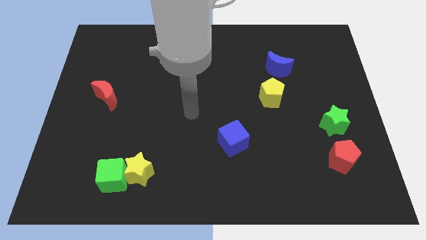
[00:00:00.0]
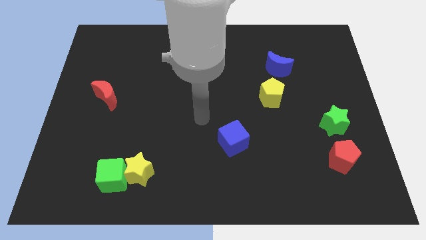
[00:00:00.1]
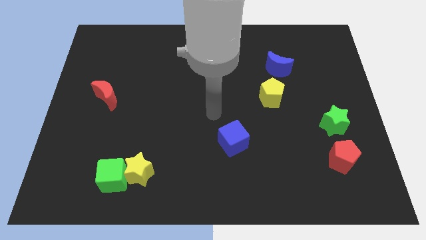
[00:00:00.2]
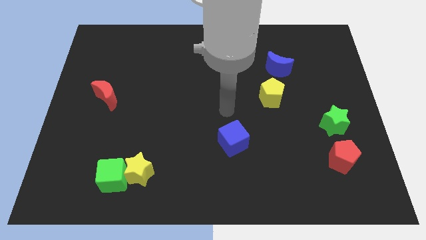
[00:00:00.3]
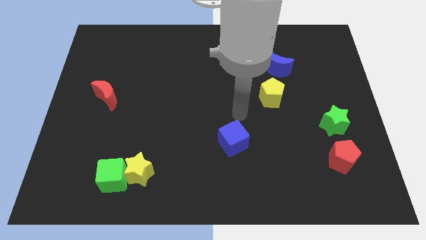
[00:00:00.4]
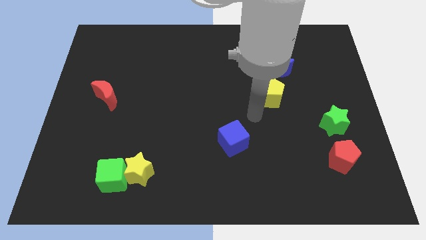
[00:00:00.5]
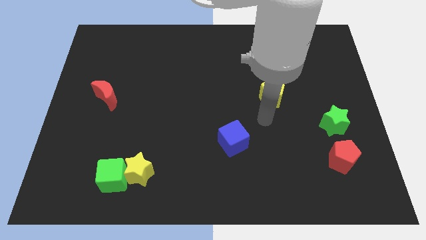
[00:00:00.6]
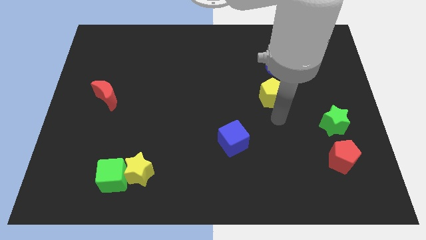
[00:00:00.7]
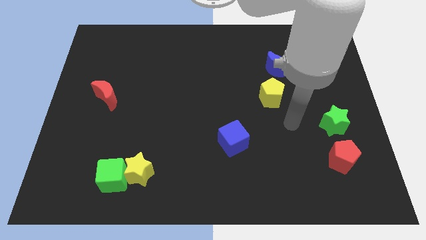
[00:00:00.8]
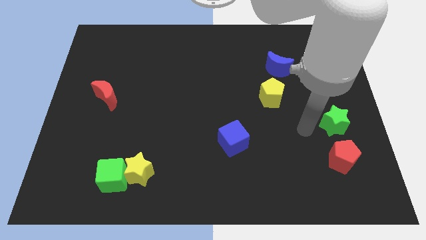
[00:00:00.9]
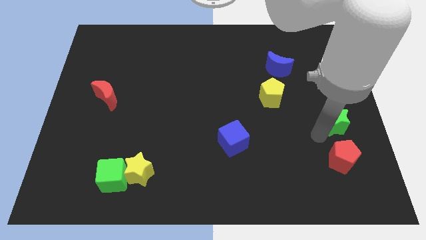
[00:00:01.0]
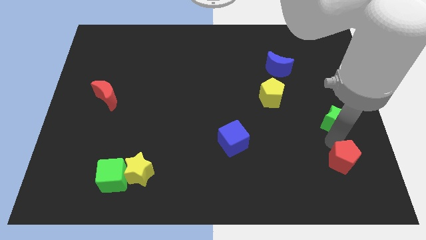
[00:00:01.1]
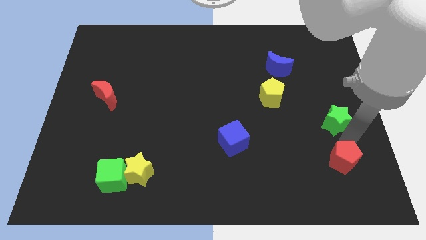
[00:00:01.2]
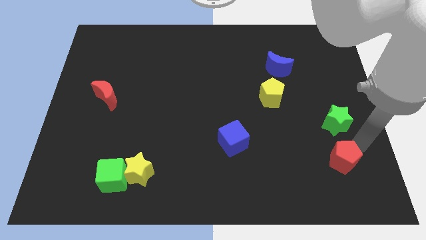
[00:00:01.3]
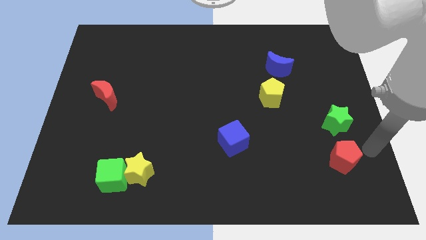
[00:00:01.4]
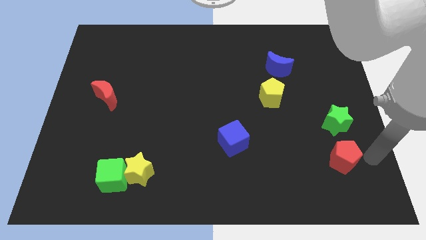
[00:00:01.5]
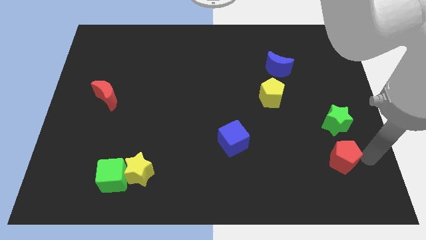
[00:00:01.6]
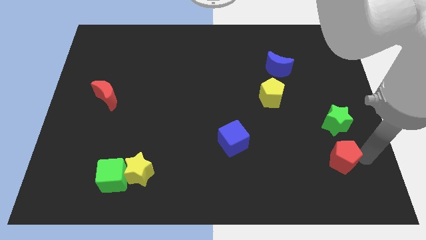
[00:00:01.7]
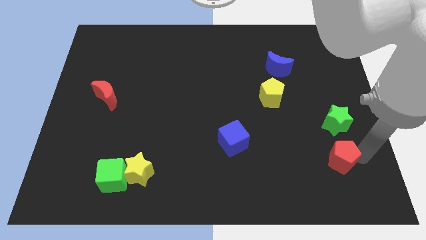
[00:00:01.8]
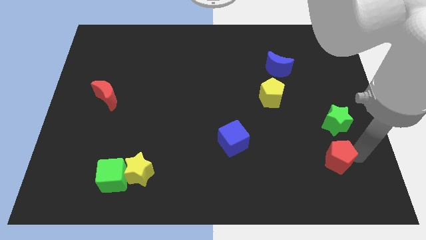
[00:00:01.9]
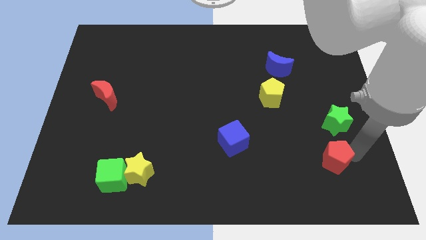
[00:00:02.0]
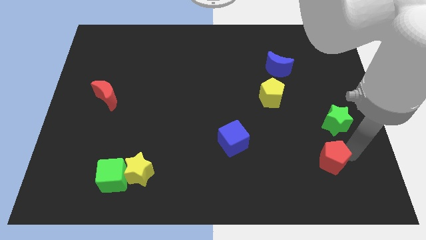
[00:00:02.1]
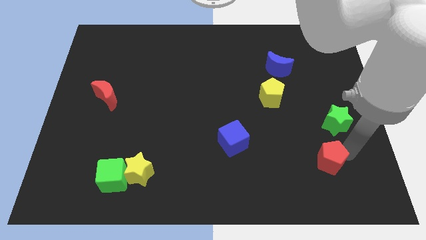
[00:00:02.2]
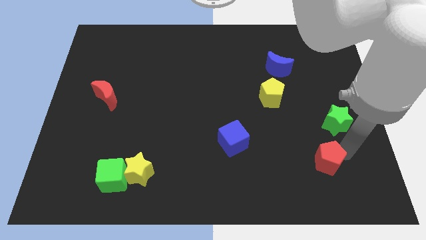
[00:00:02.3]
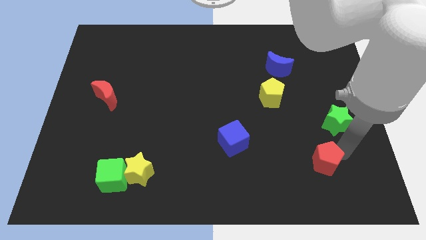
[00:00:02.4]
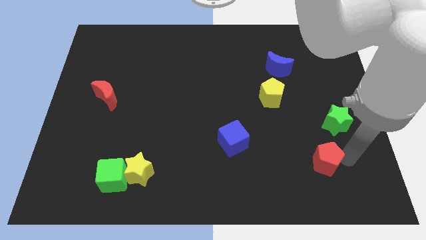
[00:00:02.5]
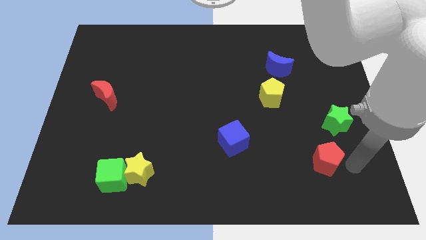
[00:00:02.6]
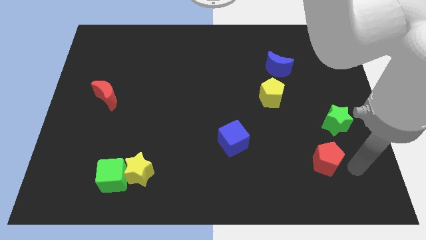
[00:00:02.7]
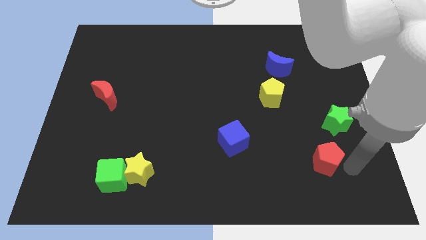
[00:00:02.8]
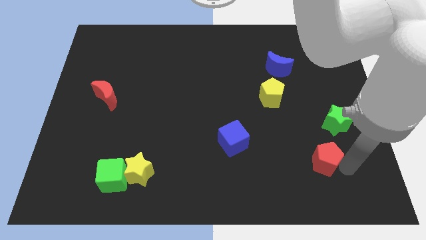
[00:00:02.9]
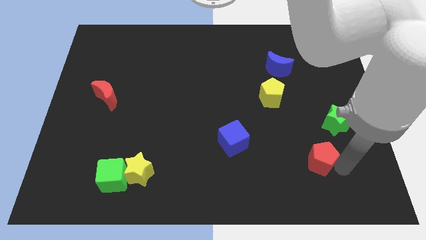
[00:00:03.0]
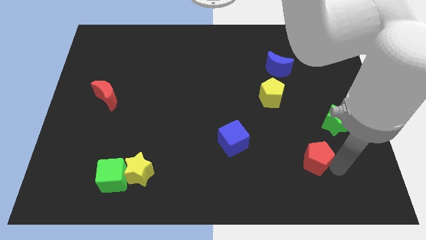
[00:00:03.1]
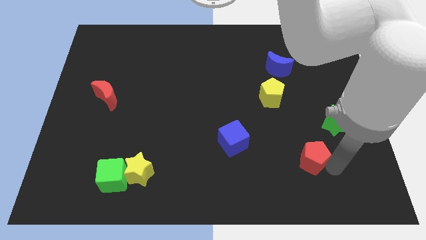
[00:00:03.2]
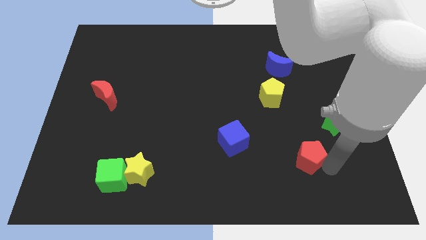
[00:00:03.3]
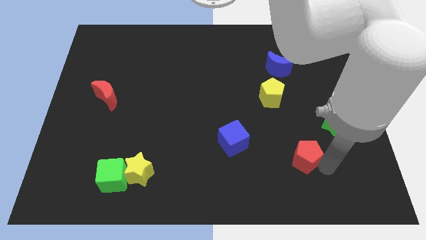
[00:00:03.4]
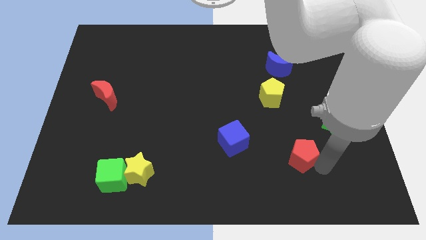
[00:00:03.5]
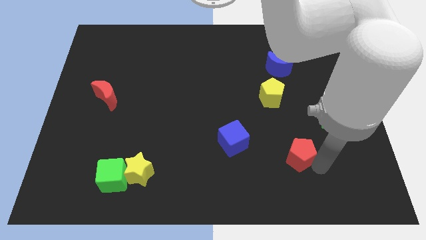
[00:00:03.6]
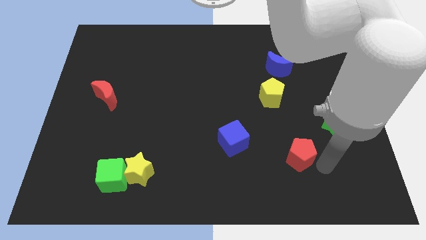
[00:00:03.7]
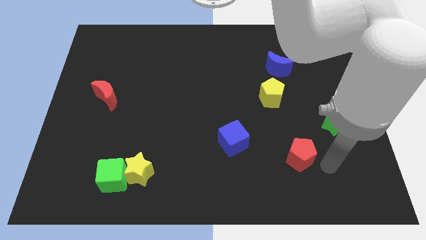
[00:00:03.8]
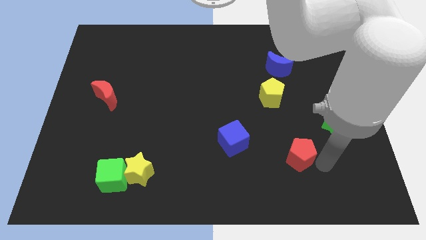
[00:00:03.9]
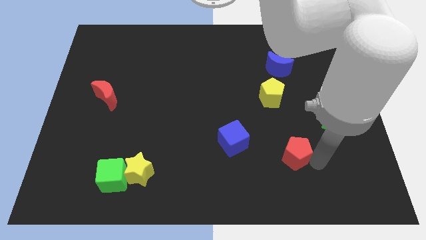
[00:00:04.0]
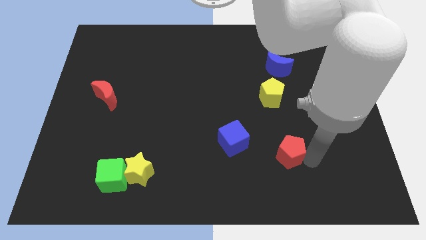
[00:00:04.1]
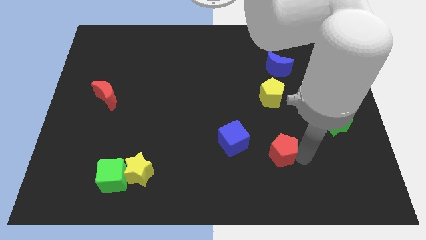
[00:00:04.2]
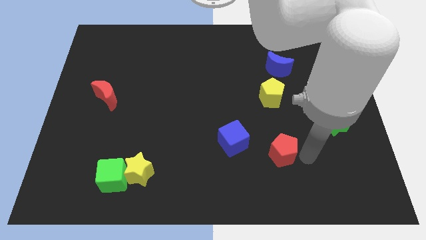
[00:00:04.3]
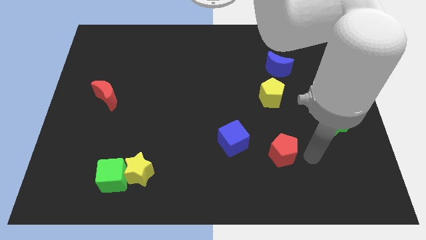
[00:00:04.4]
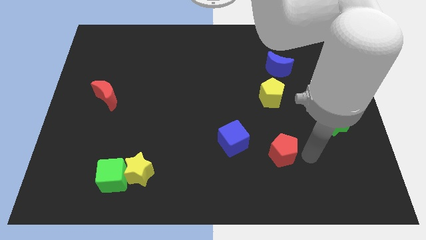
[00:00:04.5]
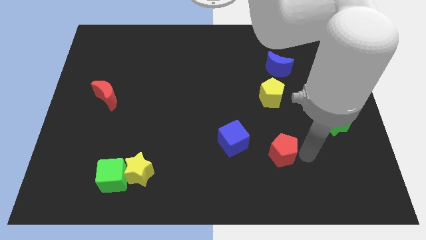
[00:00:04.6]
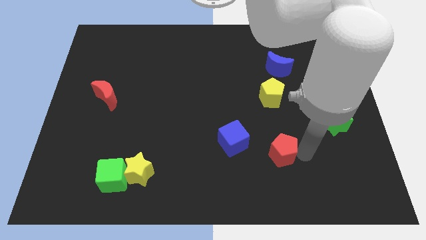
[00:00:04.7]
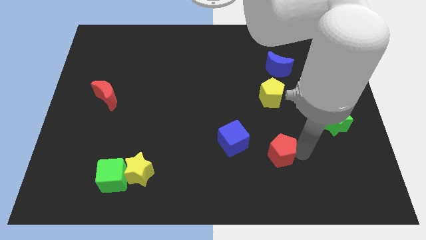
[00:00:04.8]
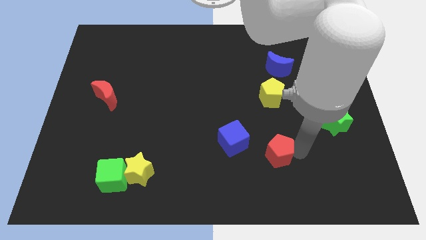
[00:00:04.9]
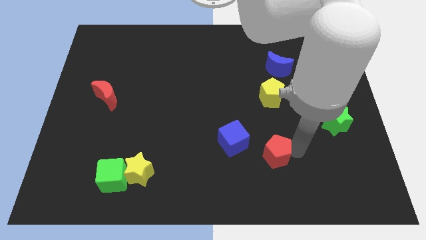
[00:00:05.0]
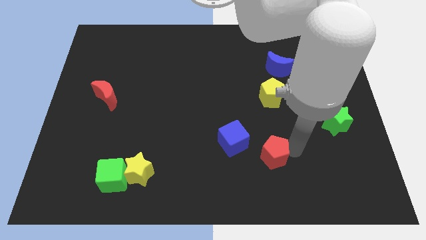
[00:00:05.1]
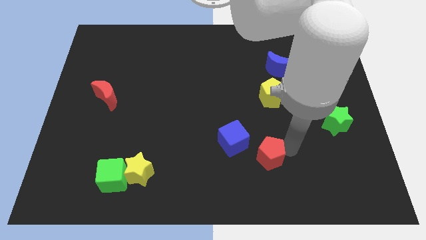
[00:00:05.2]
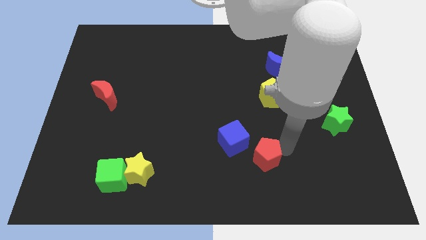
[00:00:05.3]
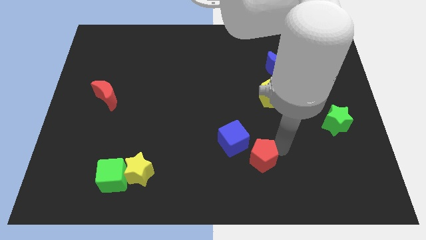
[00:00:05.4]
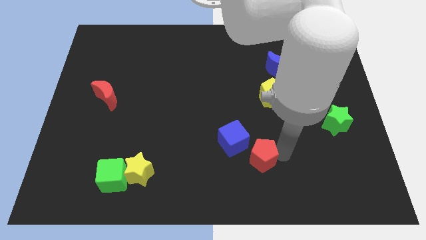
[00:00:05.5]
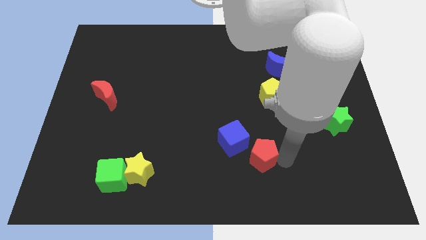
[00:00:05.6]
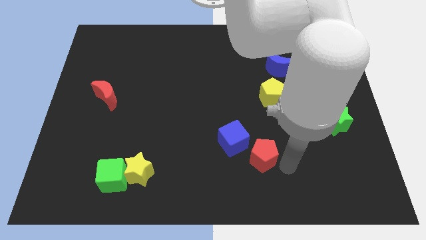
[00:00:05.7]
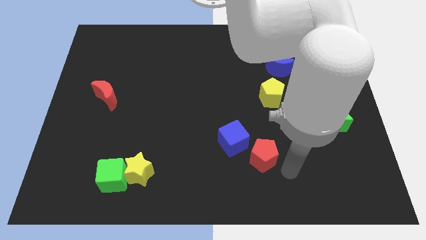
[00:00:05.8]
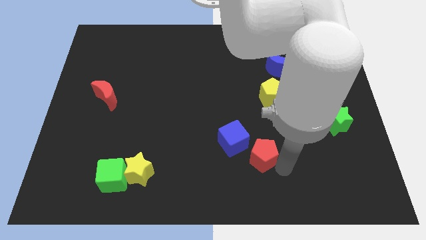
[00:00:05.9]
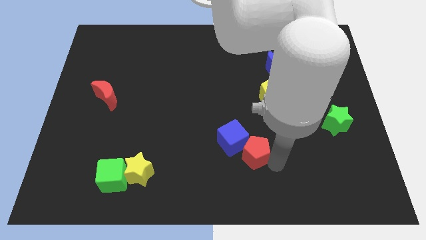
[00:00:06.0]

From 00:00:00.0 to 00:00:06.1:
push the red pentagon close to the blue cube
